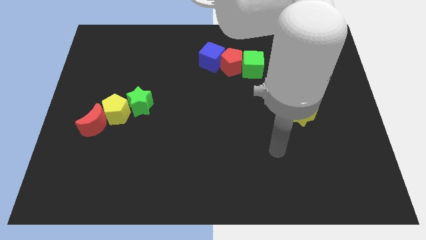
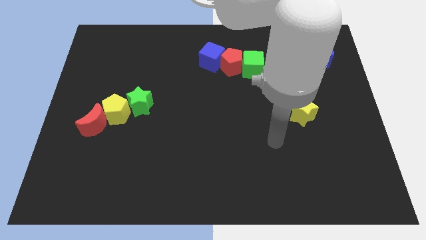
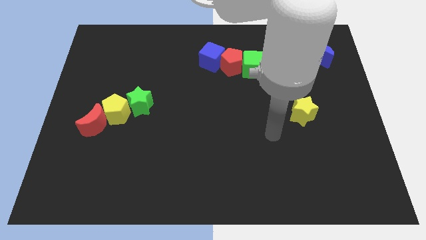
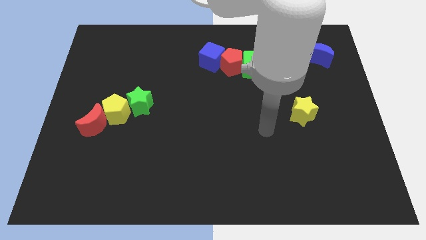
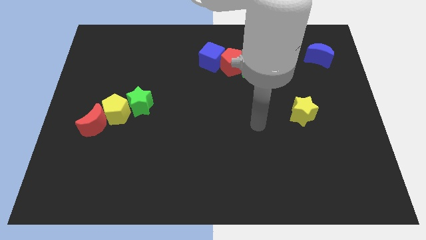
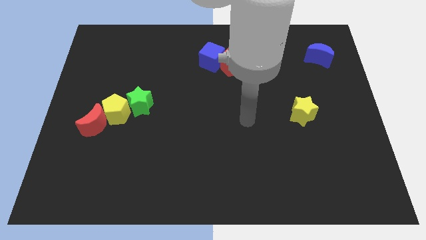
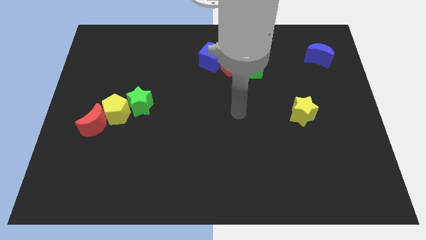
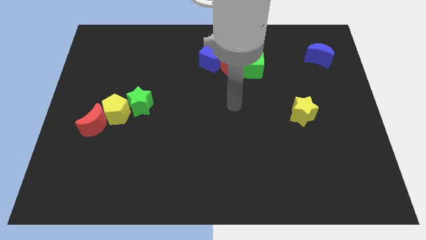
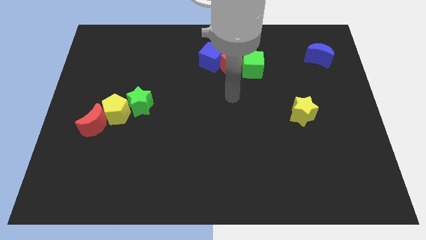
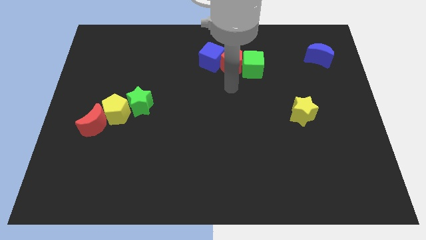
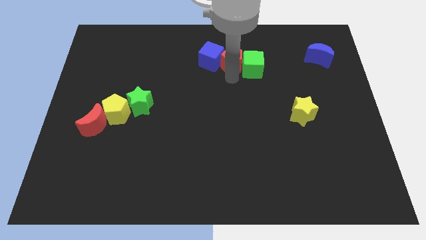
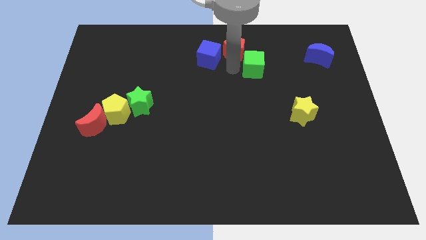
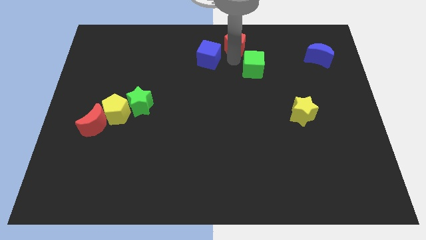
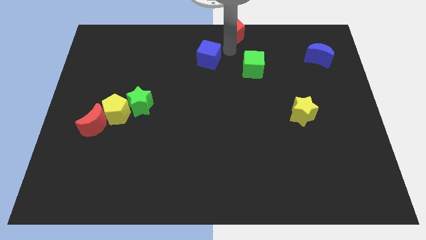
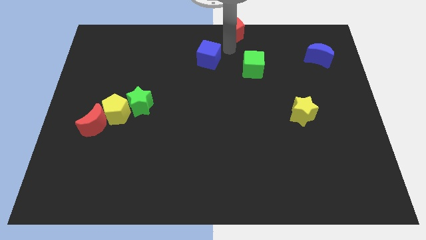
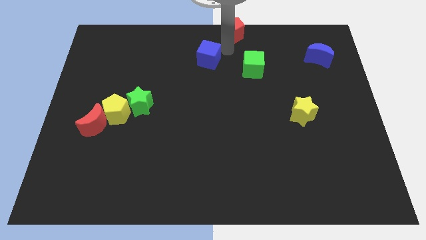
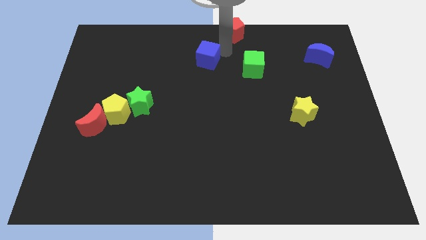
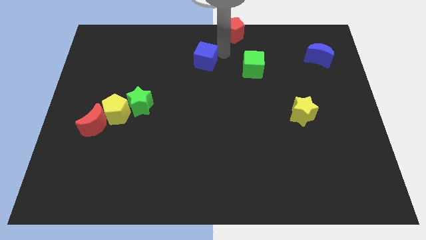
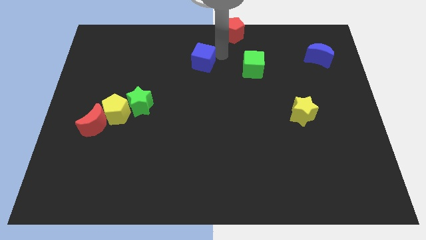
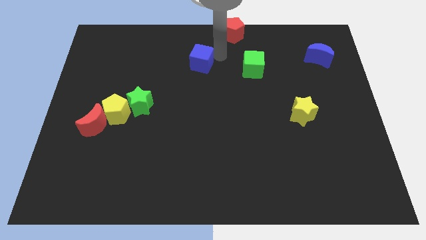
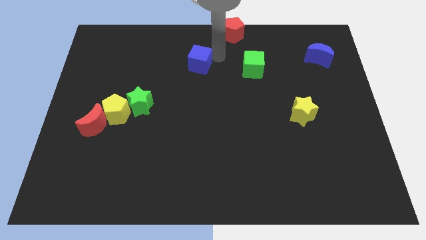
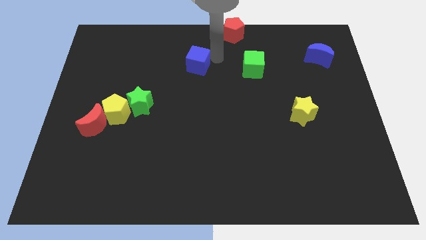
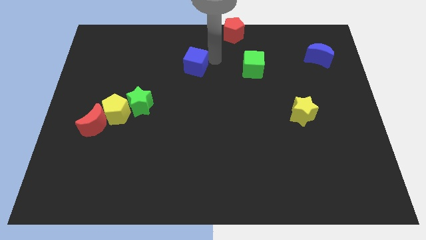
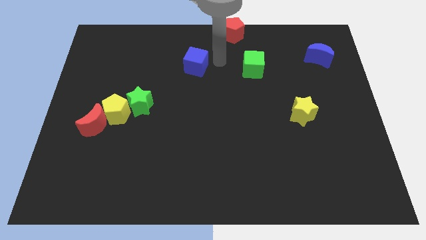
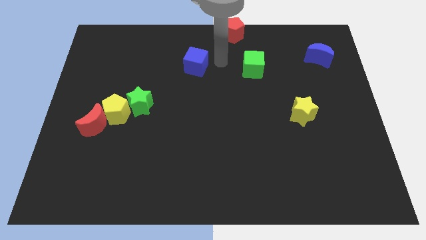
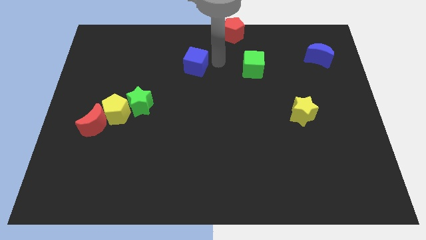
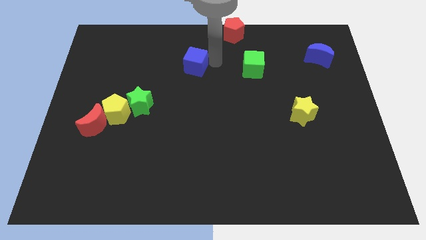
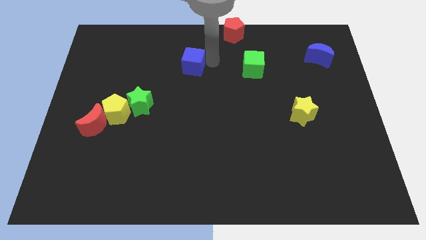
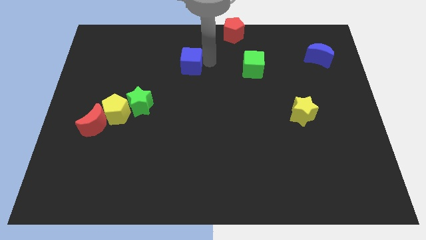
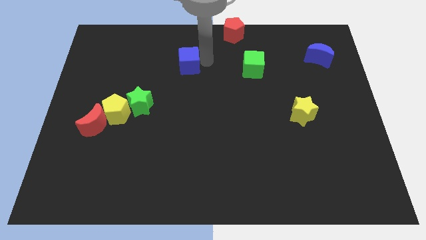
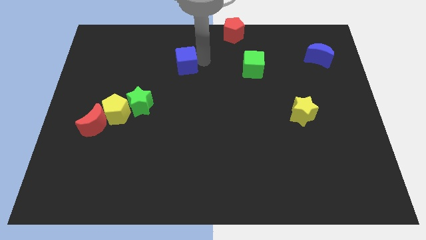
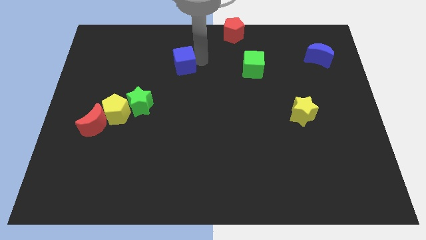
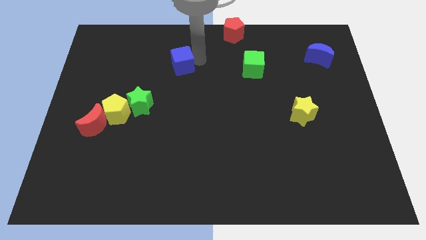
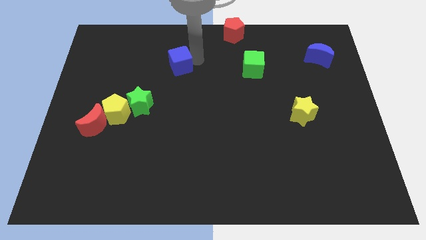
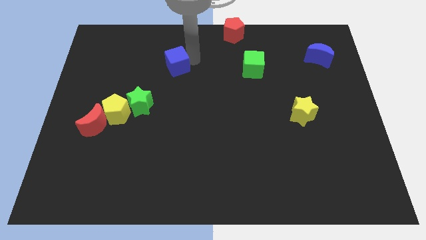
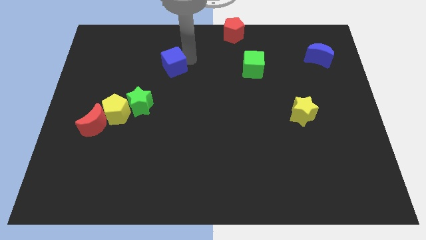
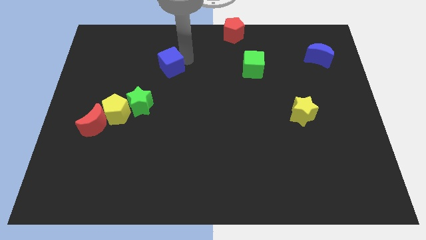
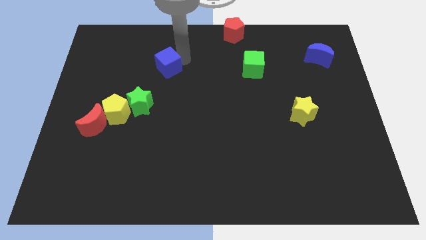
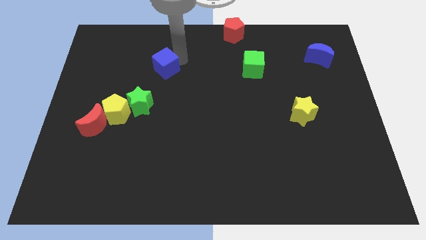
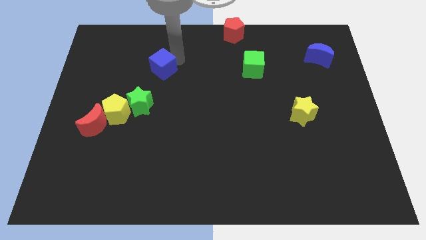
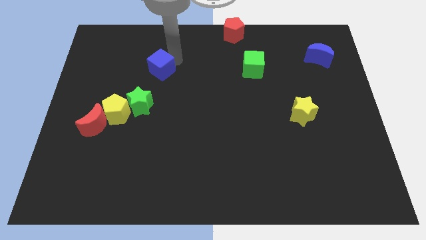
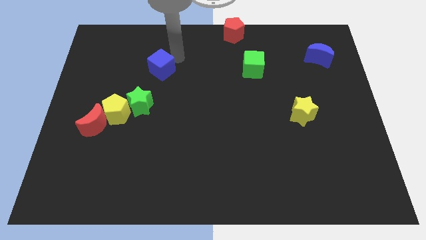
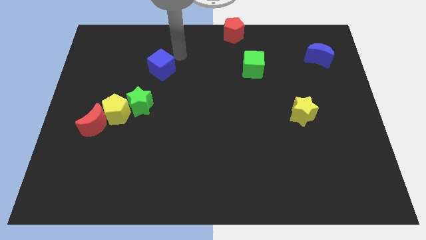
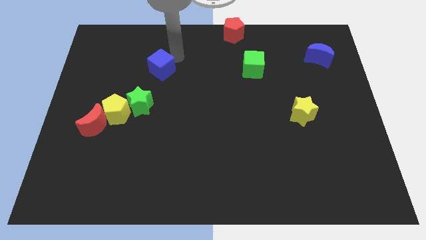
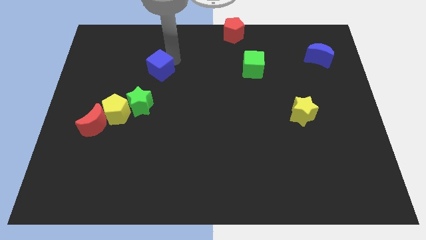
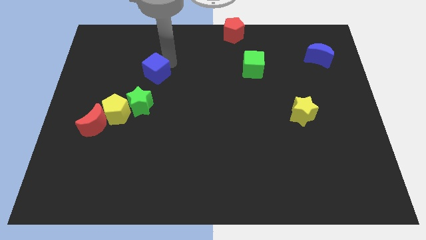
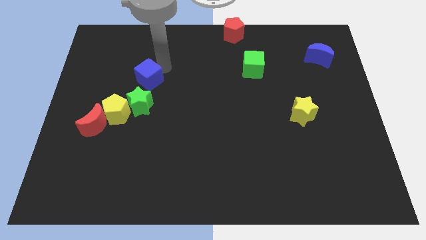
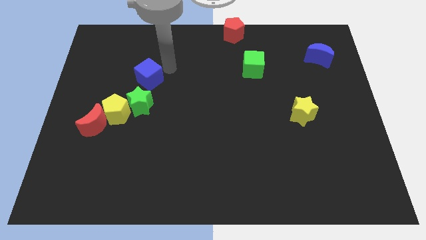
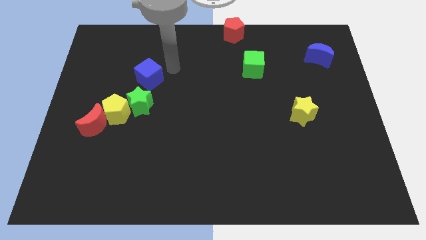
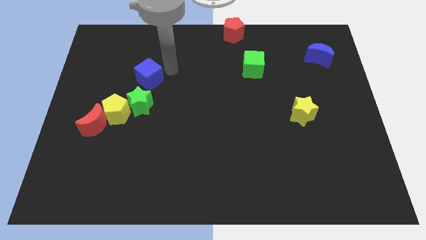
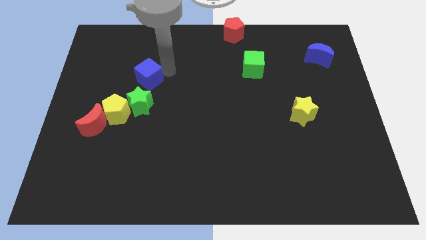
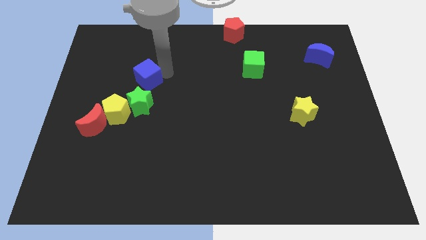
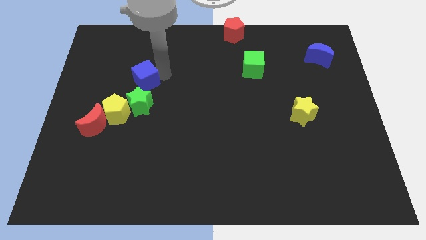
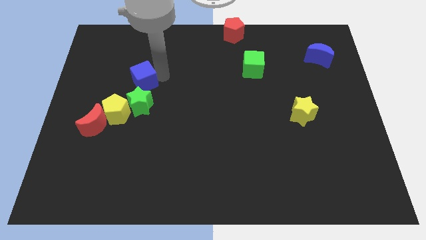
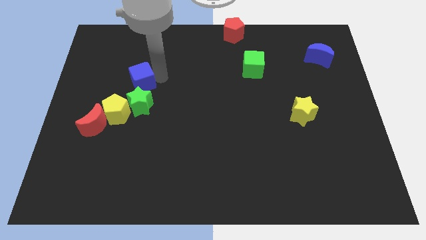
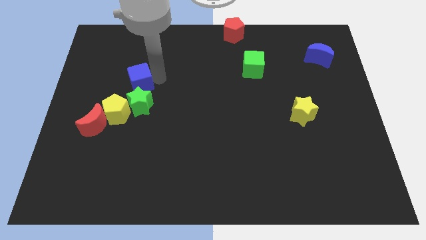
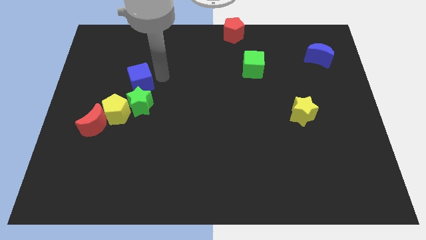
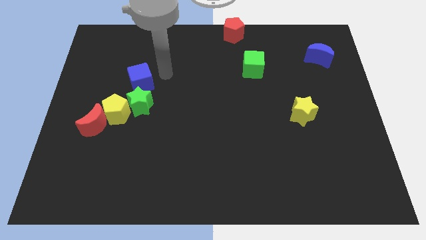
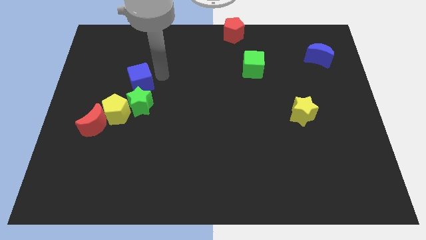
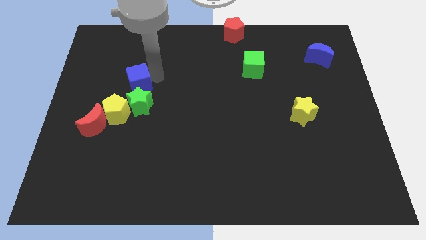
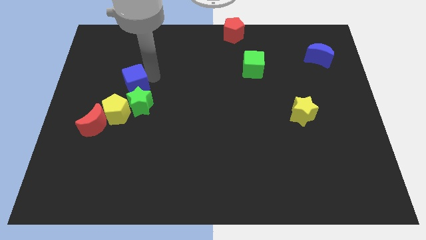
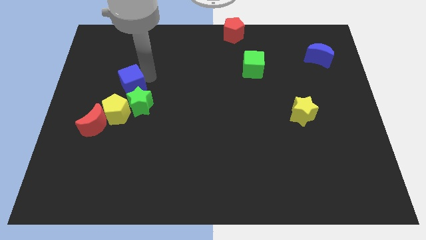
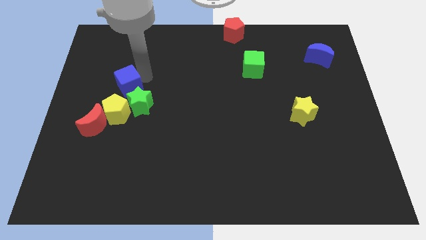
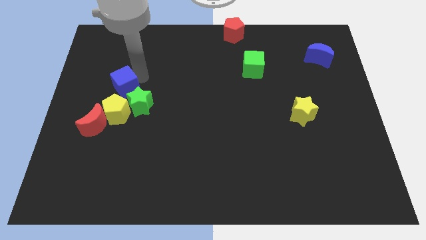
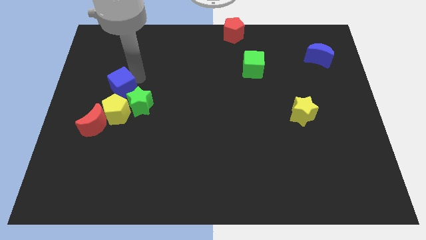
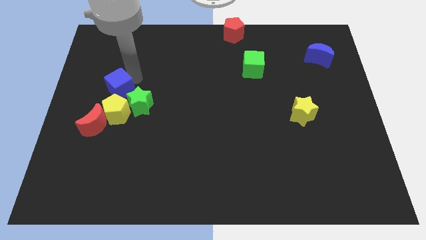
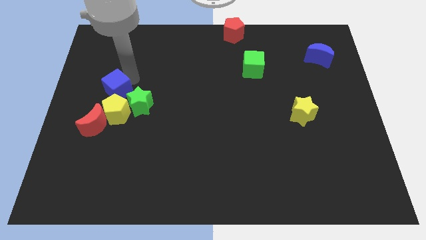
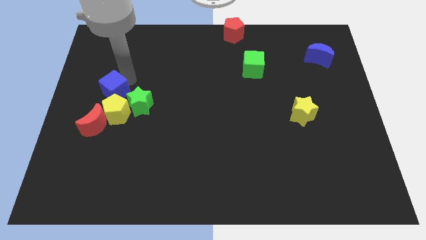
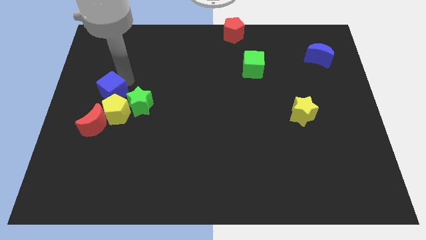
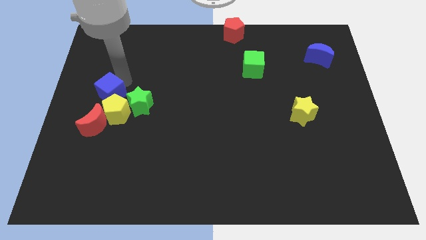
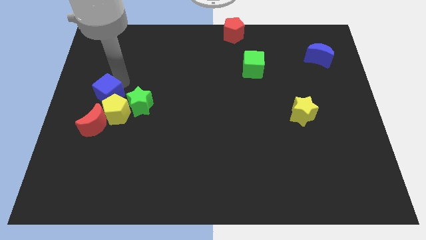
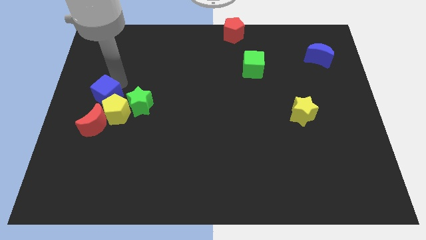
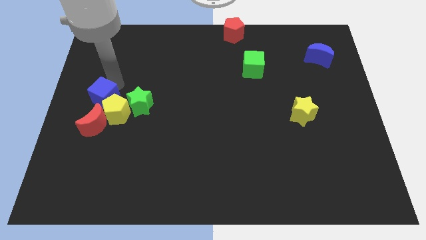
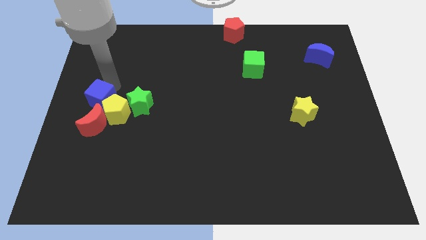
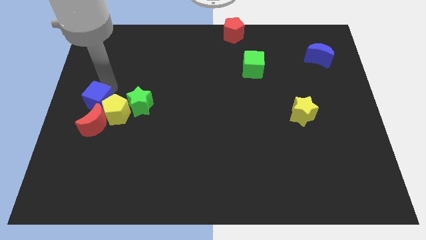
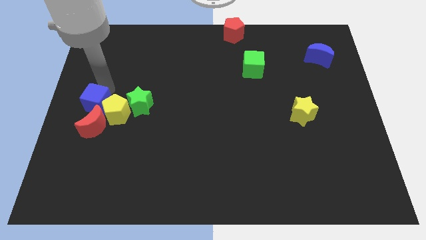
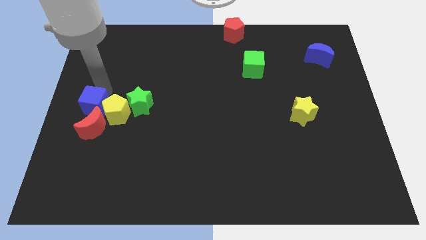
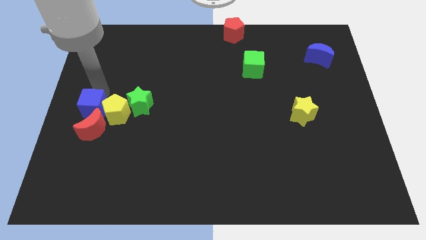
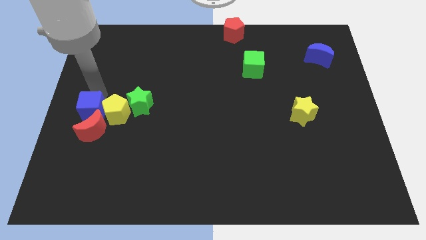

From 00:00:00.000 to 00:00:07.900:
slide the blue cube towards the red moon
